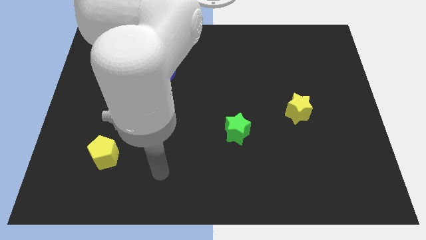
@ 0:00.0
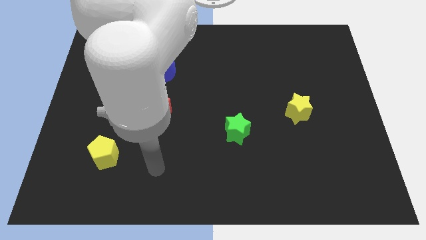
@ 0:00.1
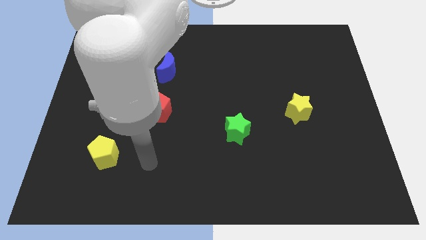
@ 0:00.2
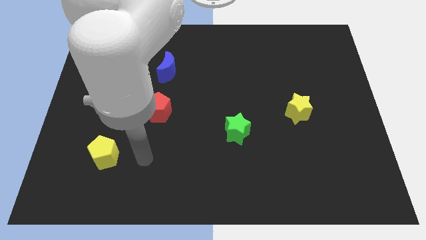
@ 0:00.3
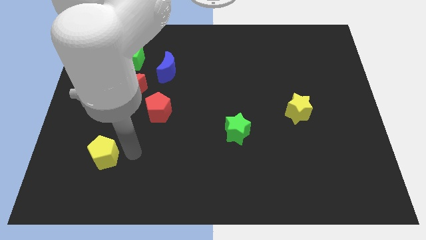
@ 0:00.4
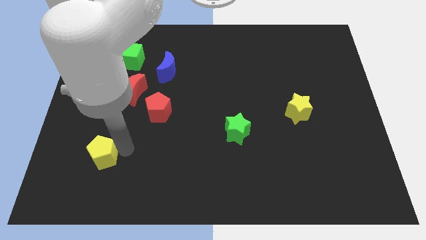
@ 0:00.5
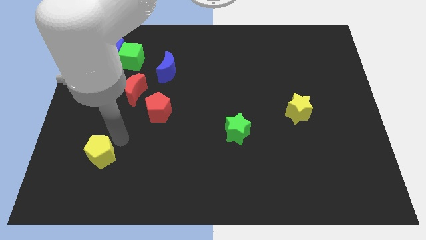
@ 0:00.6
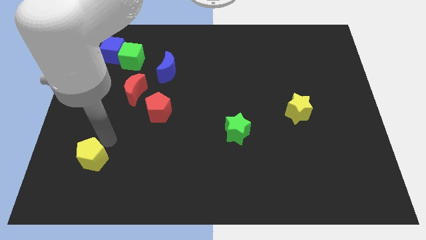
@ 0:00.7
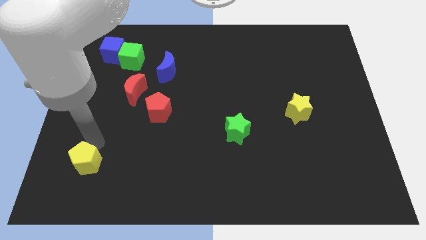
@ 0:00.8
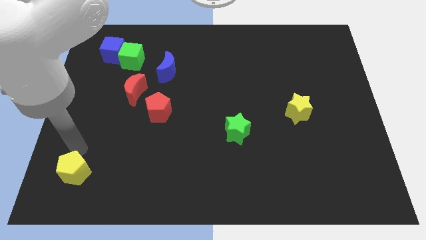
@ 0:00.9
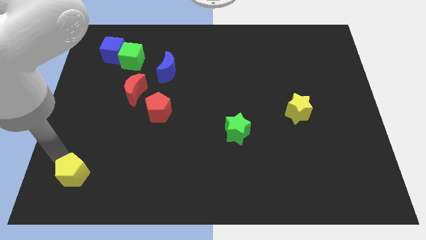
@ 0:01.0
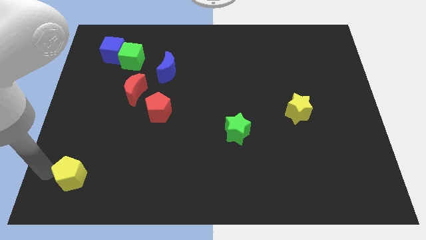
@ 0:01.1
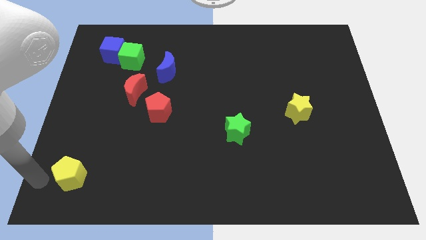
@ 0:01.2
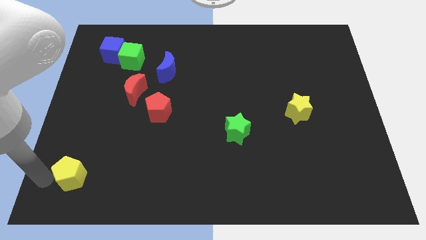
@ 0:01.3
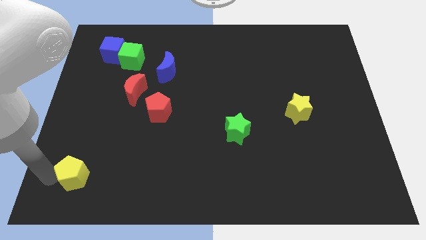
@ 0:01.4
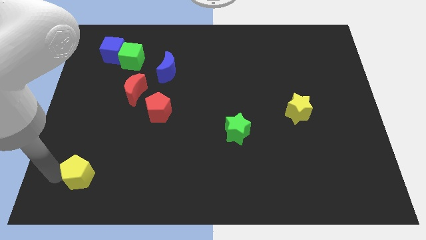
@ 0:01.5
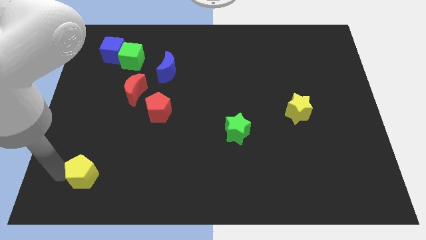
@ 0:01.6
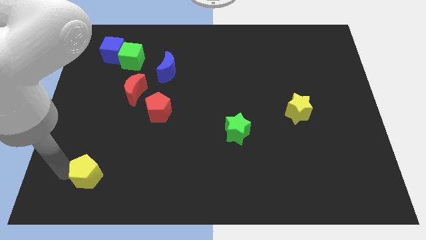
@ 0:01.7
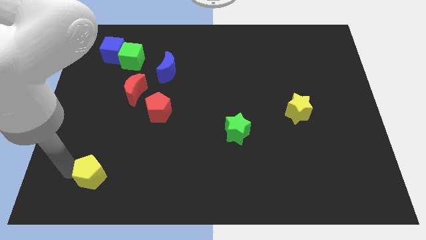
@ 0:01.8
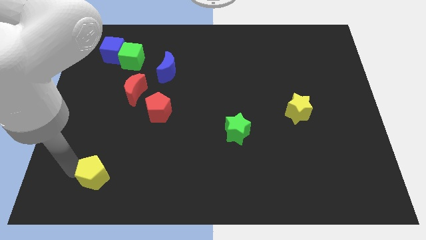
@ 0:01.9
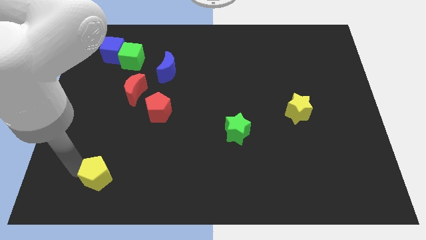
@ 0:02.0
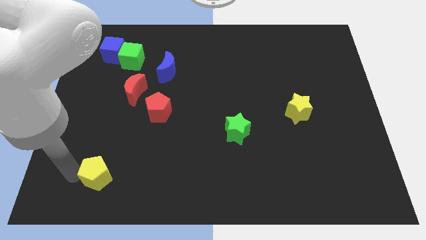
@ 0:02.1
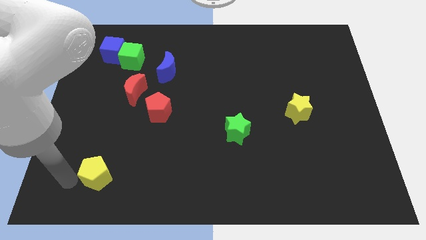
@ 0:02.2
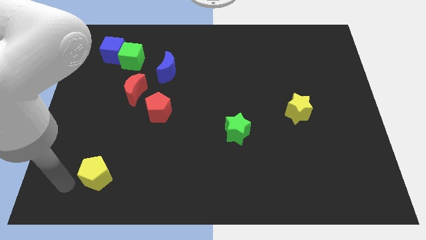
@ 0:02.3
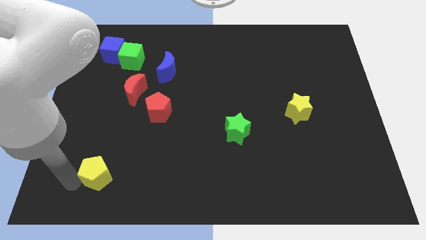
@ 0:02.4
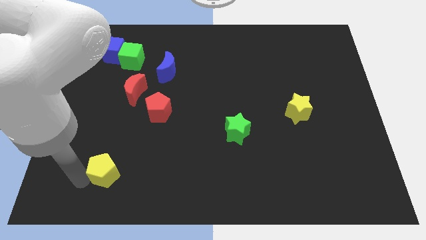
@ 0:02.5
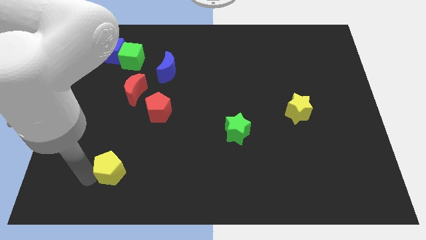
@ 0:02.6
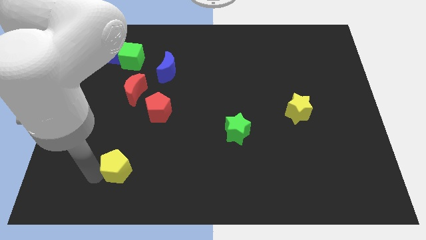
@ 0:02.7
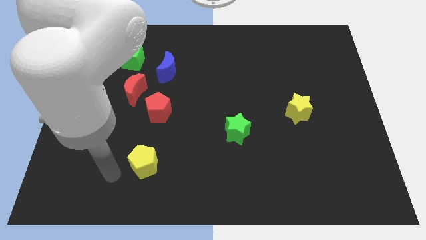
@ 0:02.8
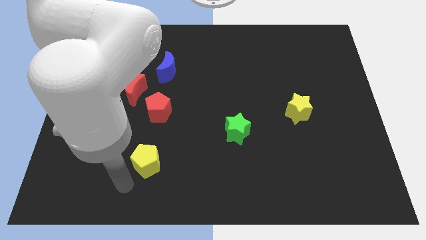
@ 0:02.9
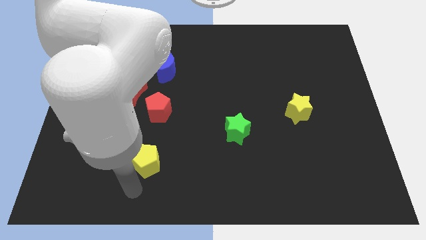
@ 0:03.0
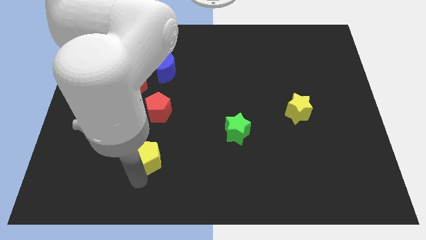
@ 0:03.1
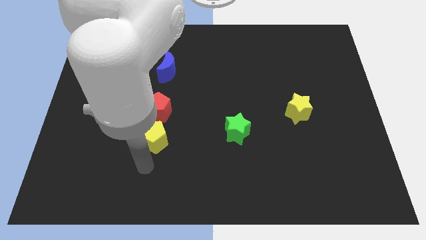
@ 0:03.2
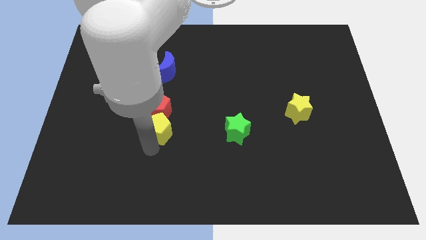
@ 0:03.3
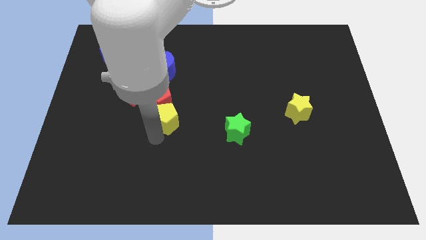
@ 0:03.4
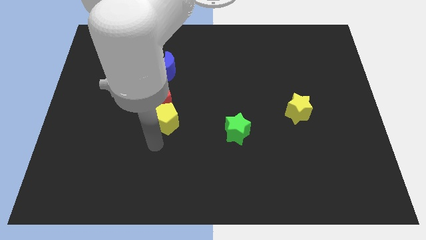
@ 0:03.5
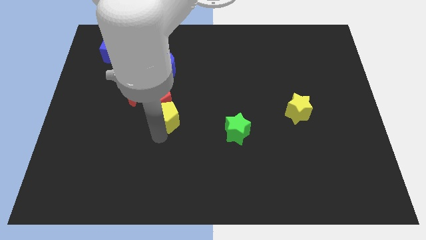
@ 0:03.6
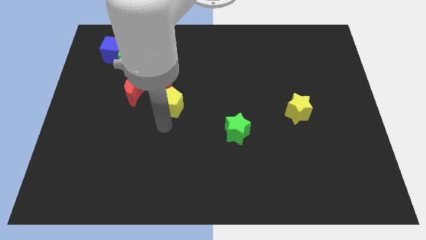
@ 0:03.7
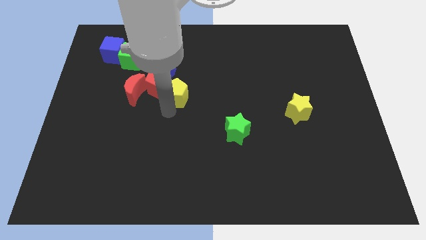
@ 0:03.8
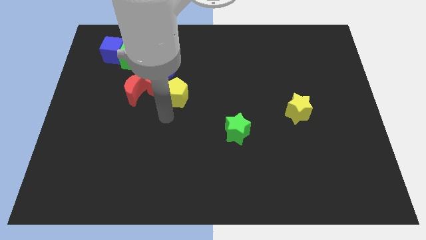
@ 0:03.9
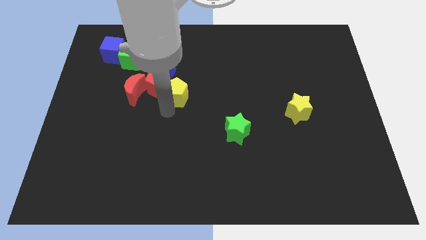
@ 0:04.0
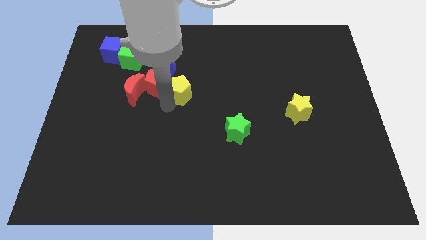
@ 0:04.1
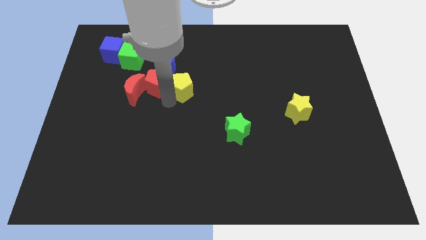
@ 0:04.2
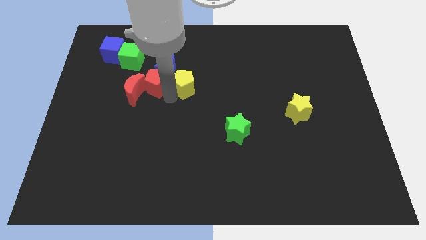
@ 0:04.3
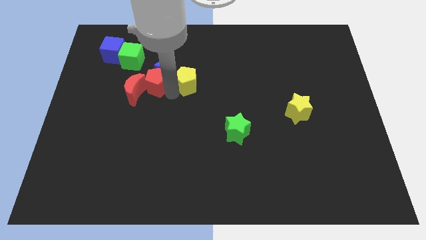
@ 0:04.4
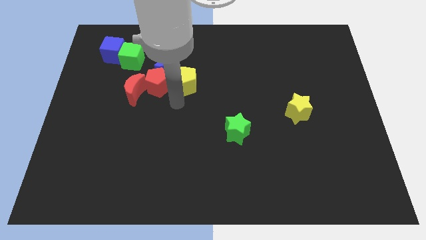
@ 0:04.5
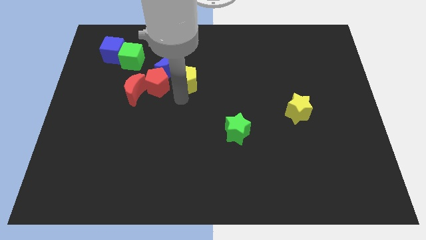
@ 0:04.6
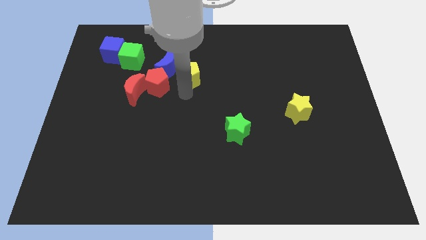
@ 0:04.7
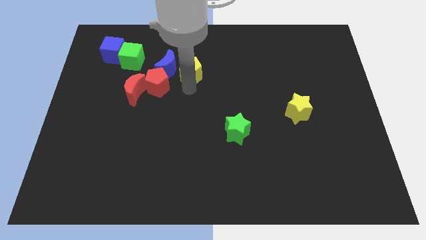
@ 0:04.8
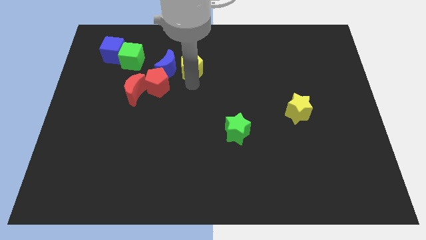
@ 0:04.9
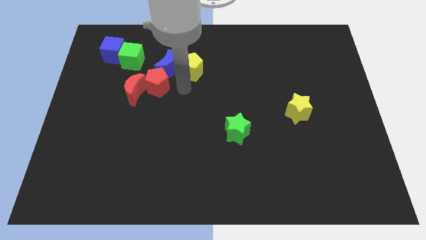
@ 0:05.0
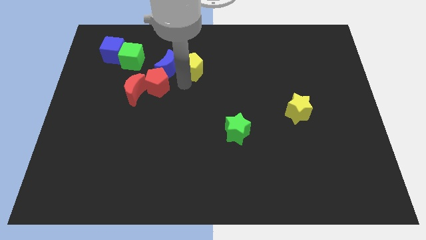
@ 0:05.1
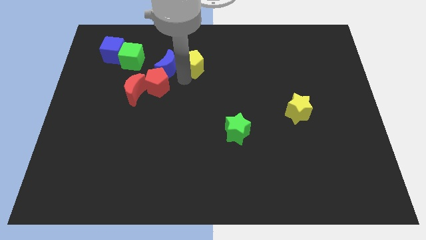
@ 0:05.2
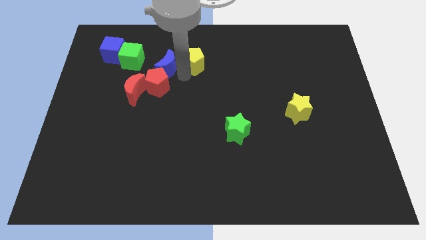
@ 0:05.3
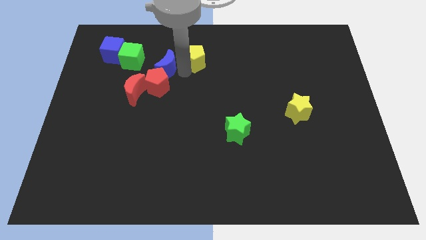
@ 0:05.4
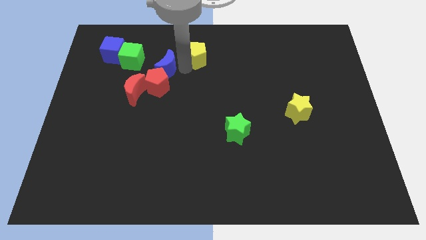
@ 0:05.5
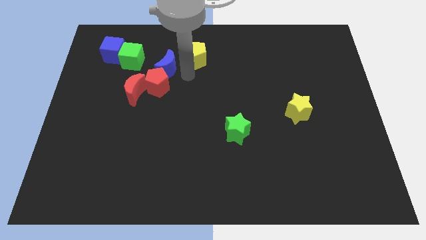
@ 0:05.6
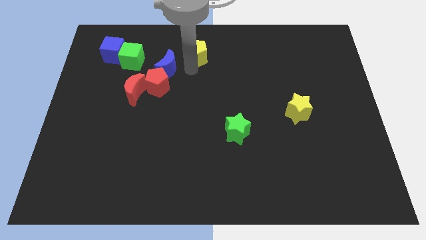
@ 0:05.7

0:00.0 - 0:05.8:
move the yellow pentagon to the towards your base
